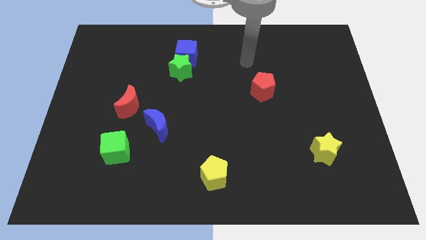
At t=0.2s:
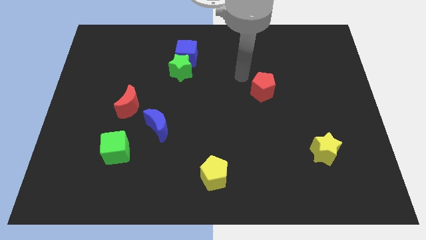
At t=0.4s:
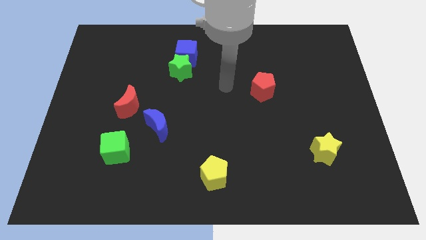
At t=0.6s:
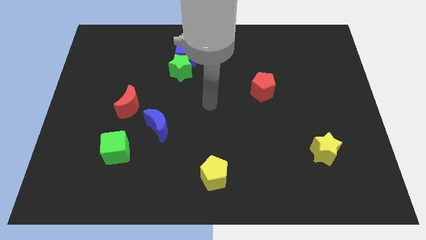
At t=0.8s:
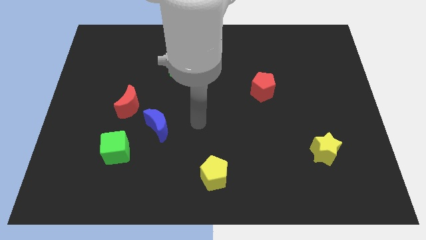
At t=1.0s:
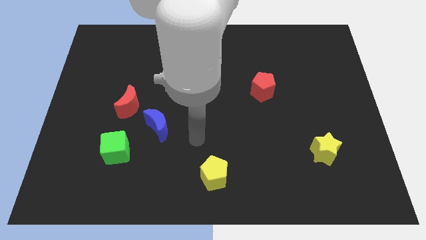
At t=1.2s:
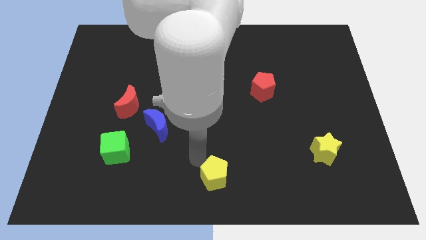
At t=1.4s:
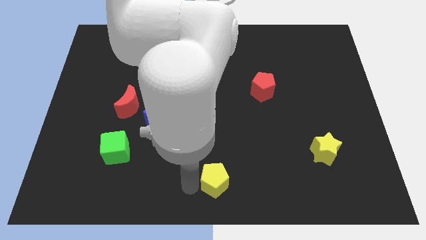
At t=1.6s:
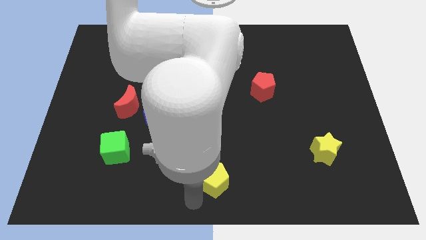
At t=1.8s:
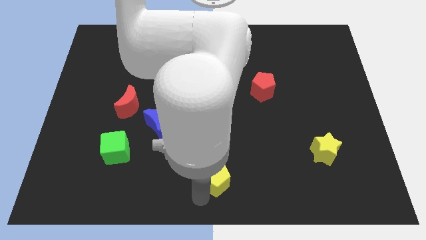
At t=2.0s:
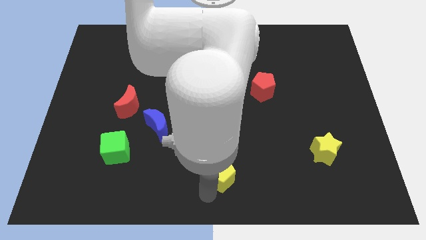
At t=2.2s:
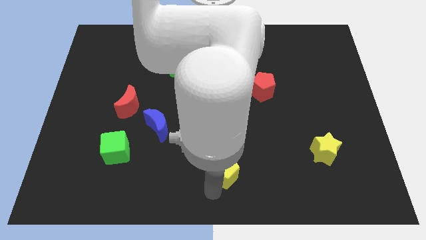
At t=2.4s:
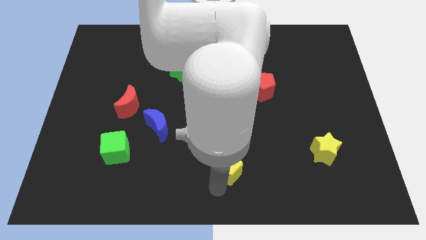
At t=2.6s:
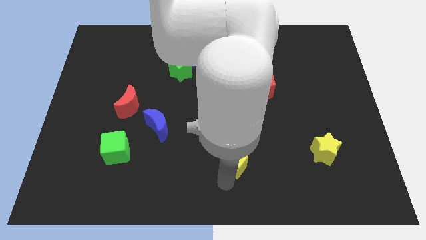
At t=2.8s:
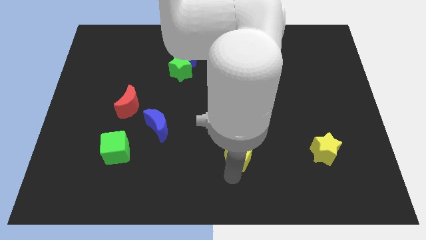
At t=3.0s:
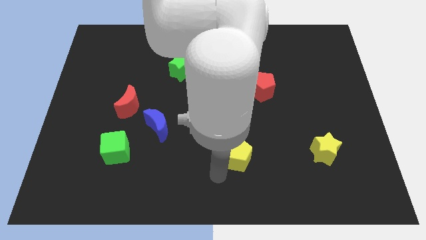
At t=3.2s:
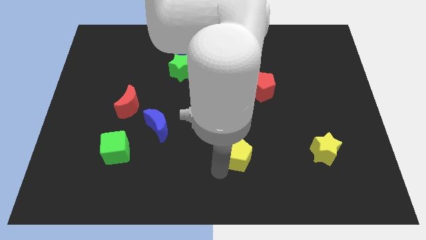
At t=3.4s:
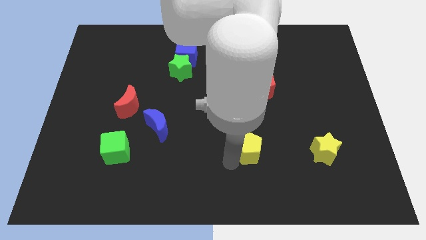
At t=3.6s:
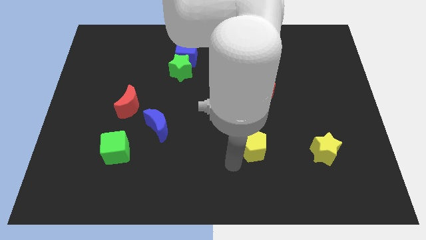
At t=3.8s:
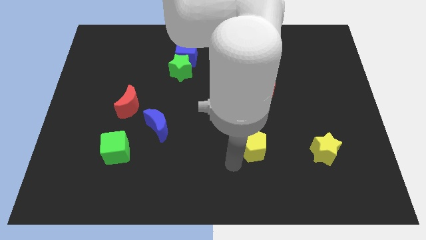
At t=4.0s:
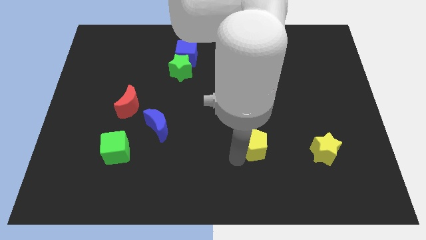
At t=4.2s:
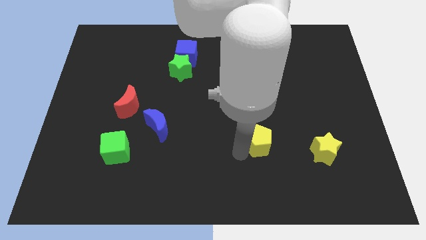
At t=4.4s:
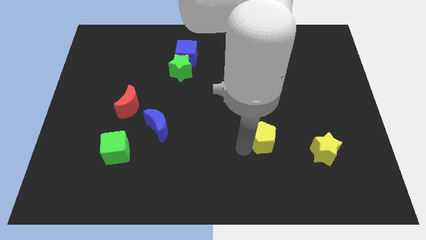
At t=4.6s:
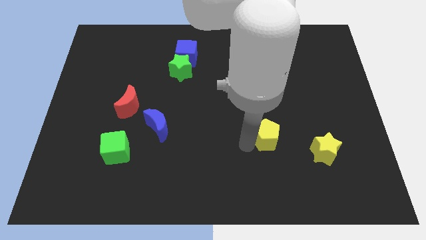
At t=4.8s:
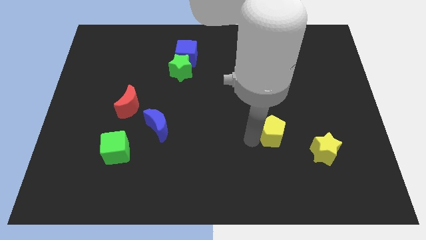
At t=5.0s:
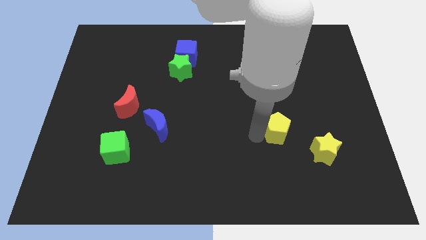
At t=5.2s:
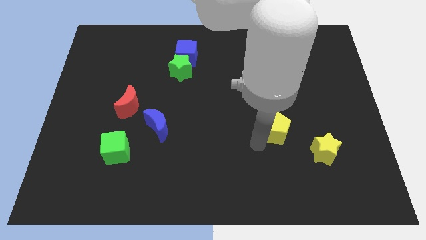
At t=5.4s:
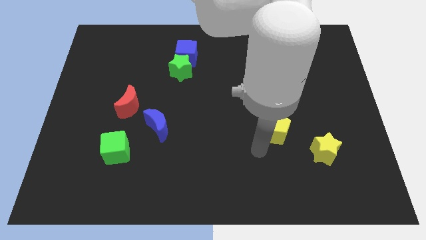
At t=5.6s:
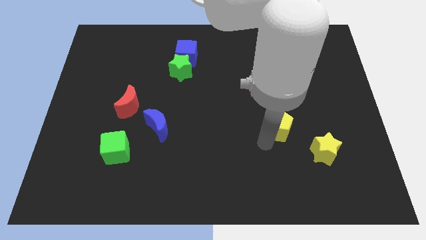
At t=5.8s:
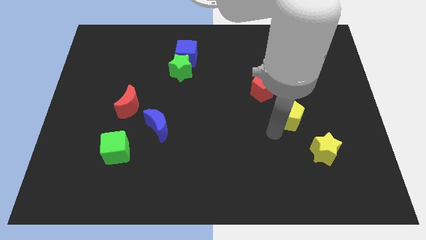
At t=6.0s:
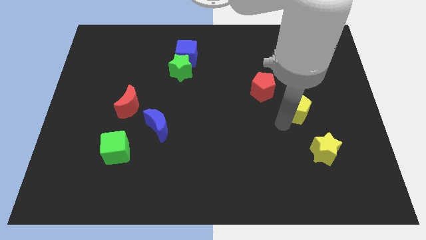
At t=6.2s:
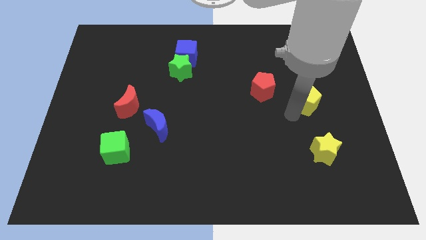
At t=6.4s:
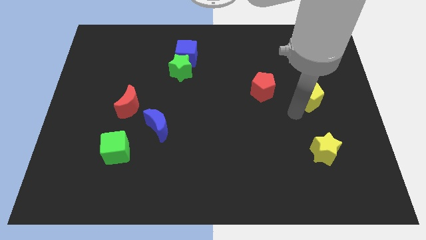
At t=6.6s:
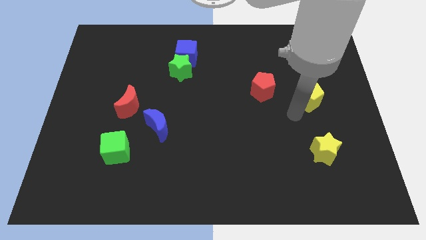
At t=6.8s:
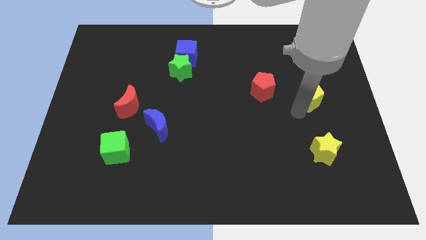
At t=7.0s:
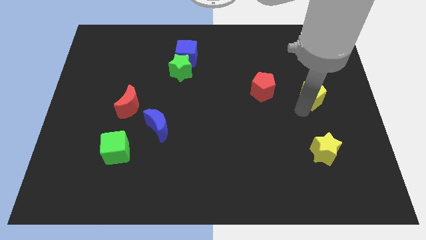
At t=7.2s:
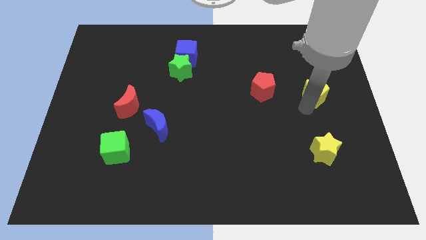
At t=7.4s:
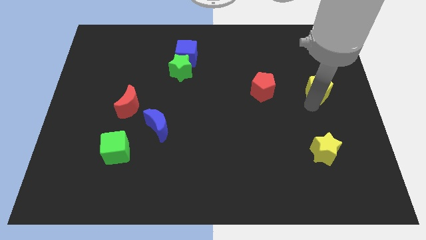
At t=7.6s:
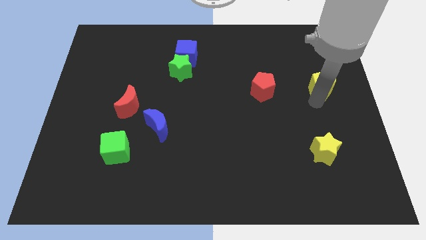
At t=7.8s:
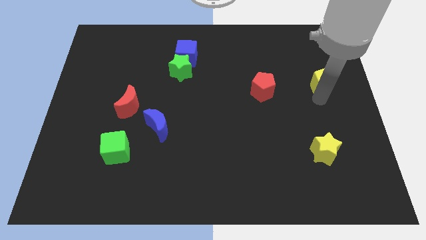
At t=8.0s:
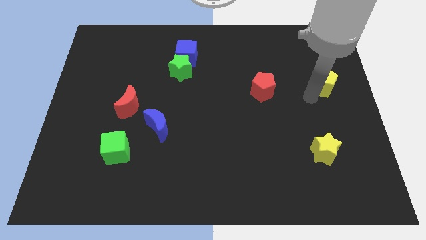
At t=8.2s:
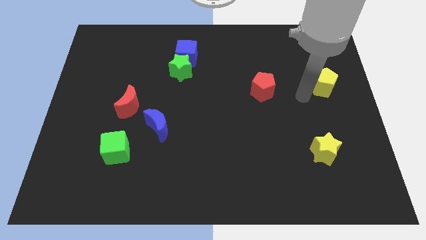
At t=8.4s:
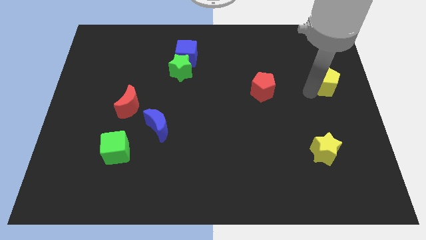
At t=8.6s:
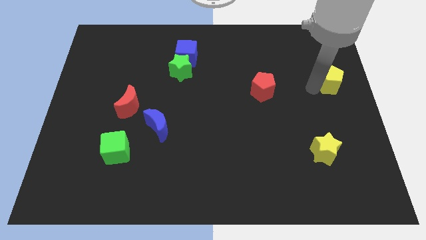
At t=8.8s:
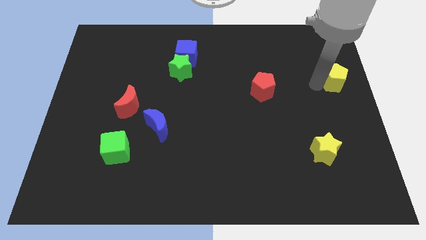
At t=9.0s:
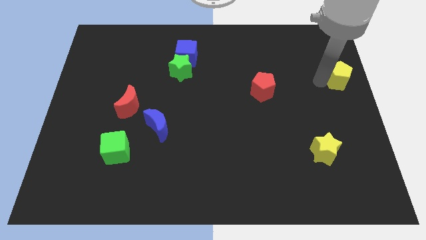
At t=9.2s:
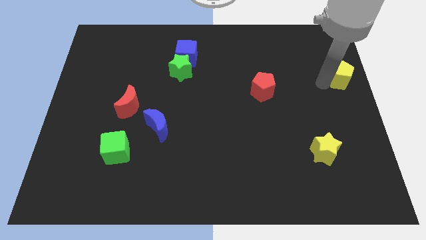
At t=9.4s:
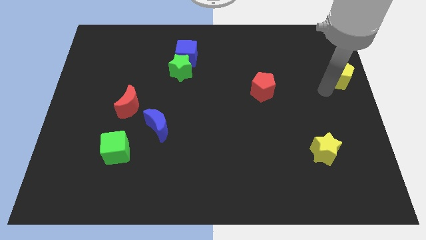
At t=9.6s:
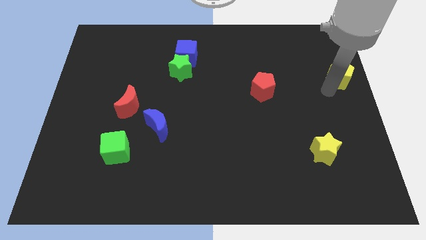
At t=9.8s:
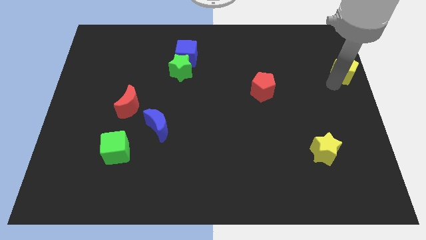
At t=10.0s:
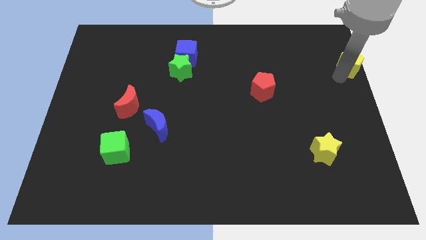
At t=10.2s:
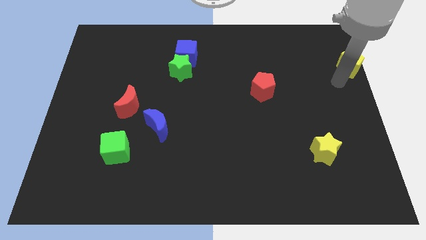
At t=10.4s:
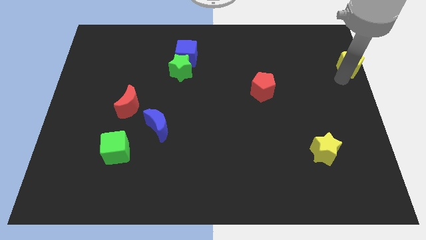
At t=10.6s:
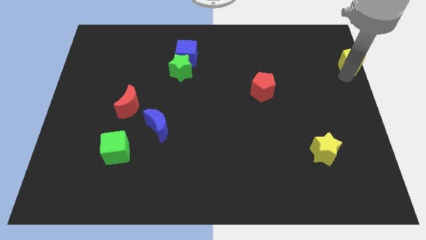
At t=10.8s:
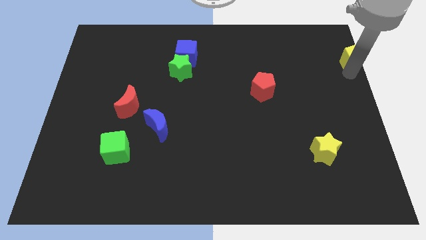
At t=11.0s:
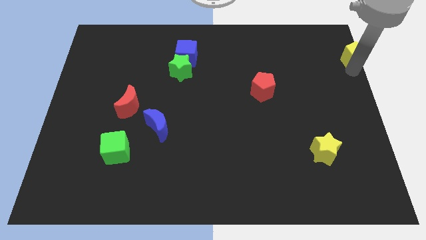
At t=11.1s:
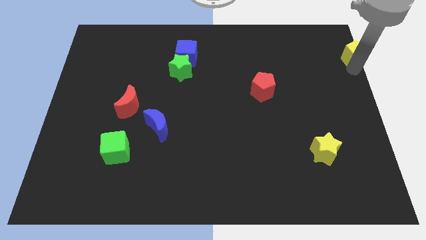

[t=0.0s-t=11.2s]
slide the yellow pentagon to the upper right corner

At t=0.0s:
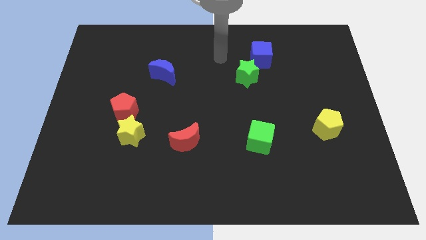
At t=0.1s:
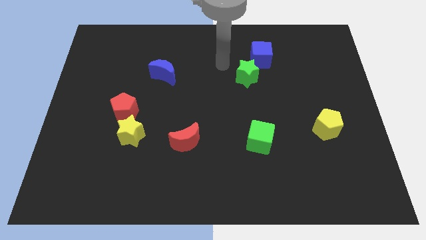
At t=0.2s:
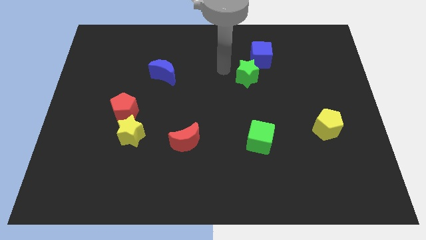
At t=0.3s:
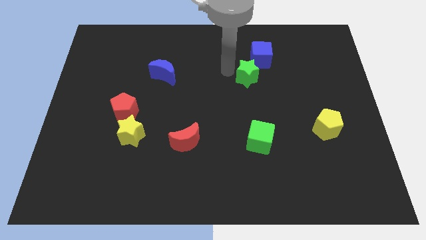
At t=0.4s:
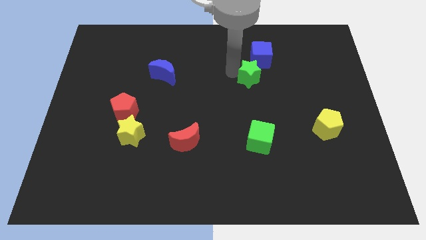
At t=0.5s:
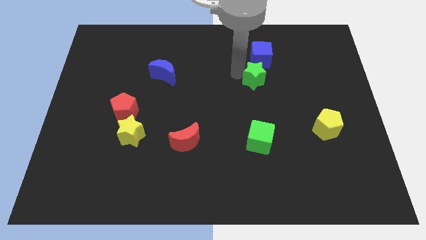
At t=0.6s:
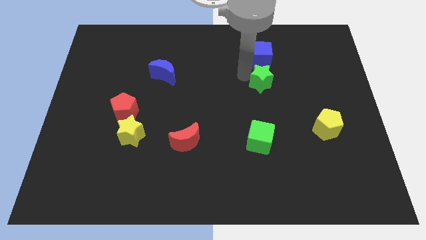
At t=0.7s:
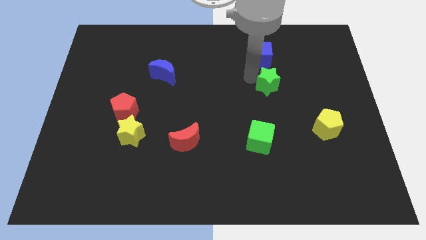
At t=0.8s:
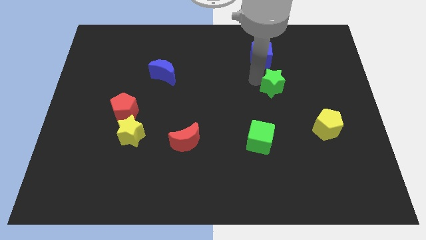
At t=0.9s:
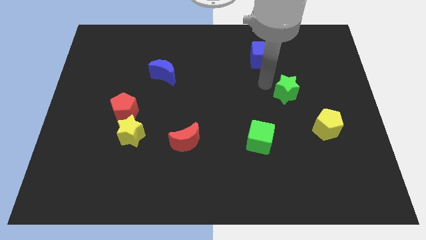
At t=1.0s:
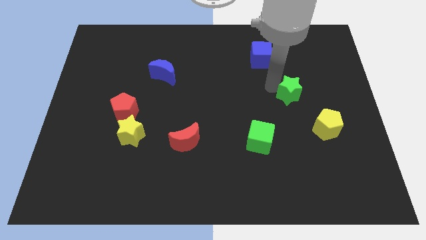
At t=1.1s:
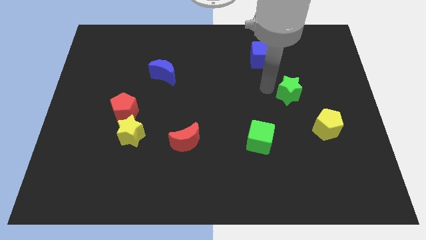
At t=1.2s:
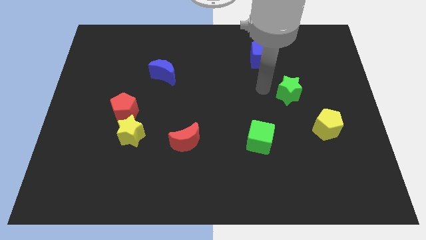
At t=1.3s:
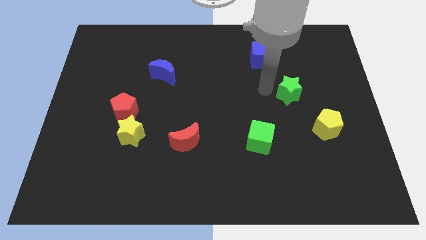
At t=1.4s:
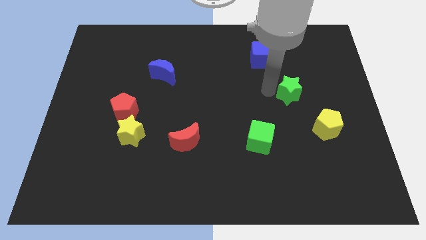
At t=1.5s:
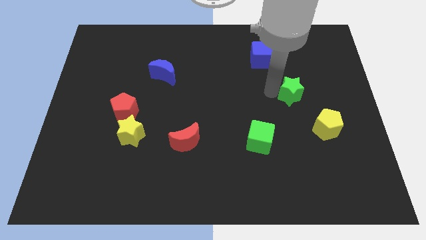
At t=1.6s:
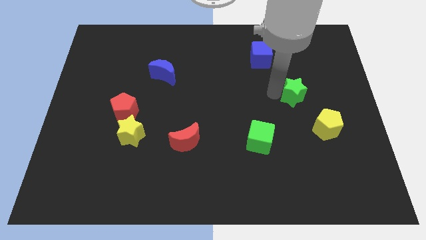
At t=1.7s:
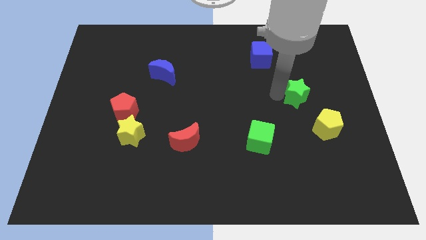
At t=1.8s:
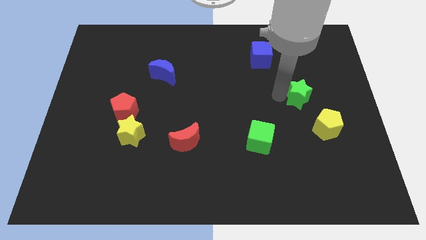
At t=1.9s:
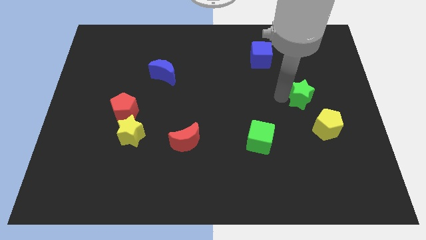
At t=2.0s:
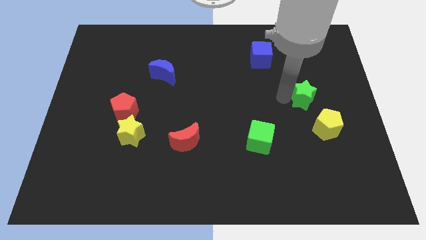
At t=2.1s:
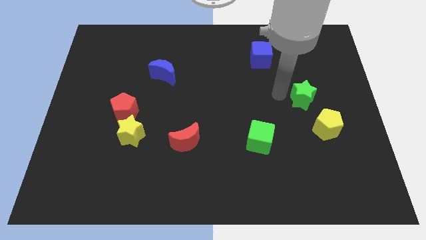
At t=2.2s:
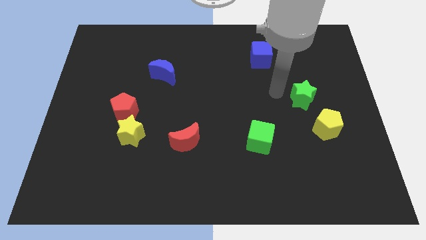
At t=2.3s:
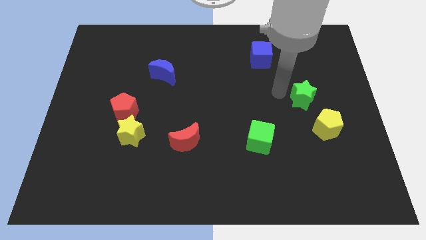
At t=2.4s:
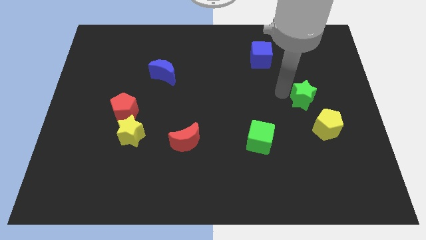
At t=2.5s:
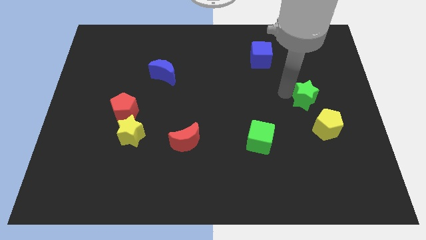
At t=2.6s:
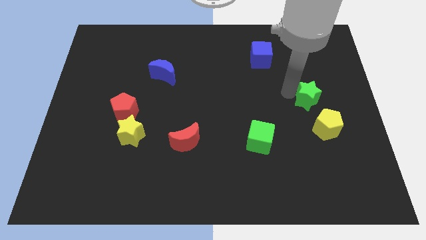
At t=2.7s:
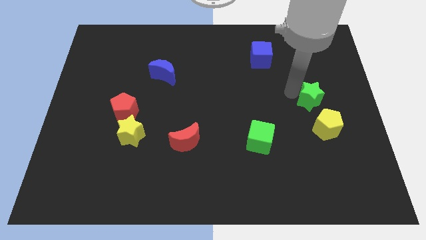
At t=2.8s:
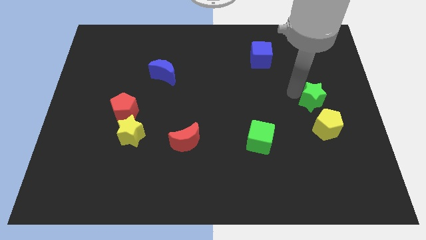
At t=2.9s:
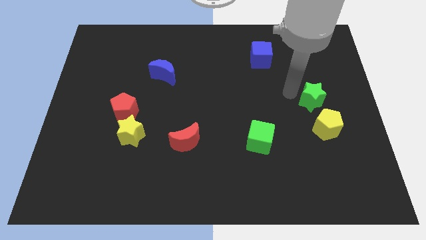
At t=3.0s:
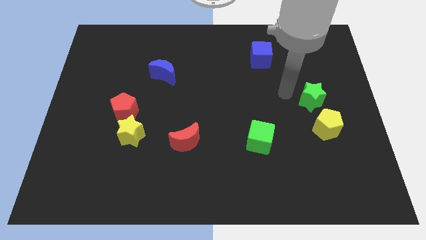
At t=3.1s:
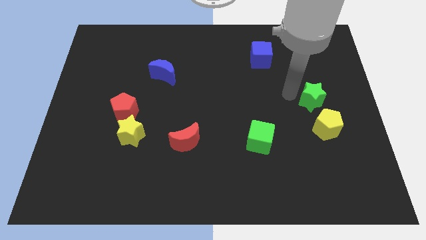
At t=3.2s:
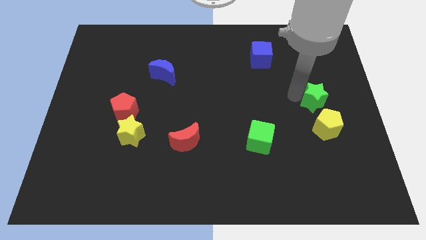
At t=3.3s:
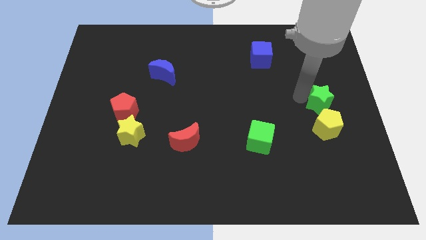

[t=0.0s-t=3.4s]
put the green star to the right side
